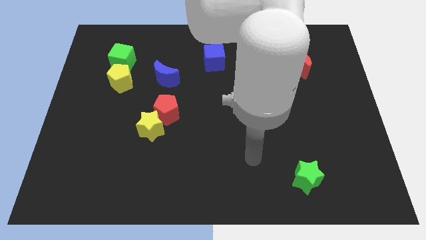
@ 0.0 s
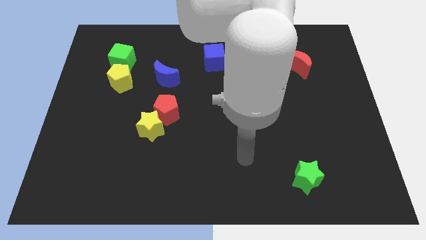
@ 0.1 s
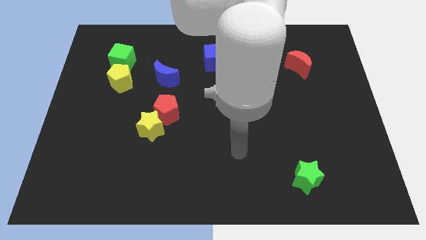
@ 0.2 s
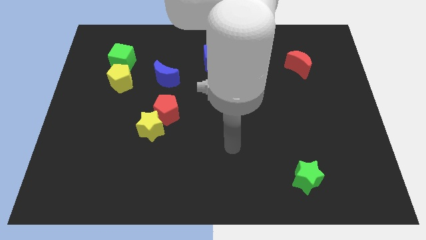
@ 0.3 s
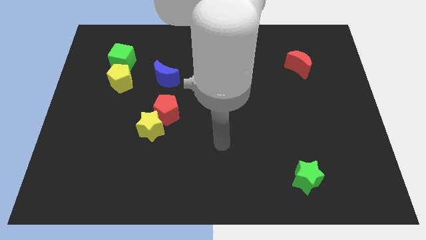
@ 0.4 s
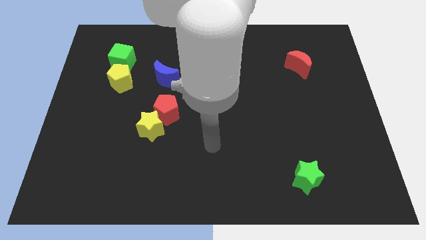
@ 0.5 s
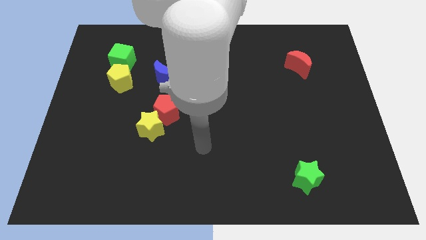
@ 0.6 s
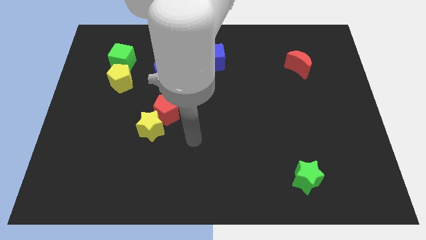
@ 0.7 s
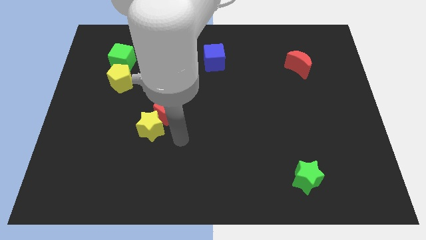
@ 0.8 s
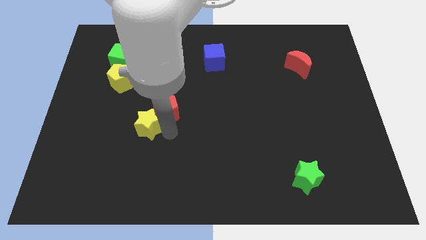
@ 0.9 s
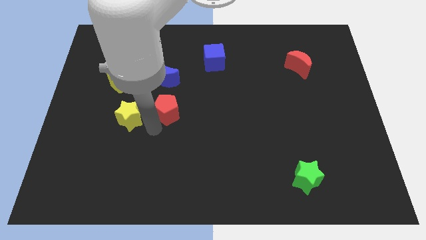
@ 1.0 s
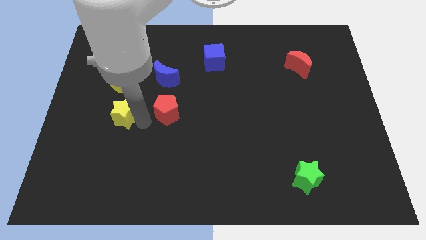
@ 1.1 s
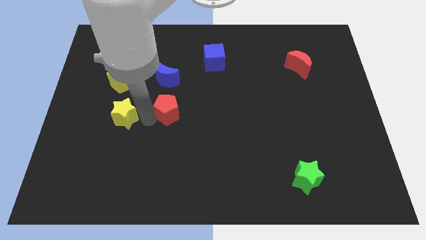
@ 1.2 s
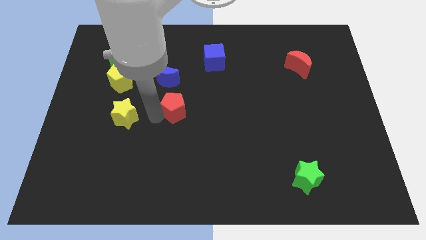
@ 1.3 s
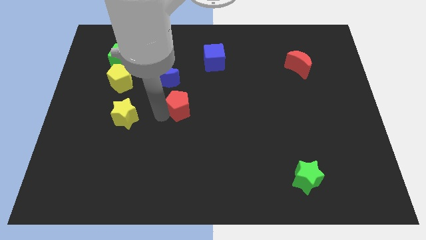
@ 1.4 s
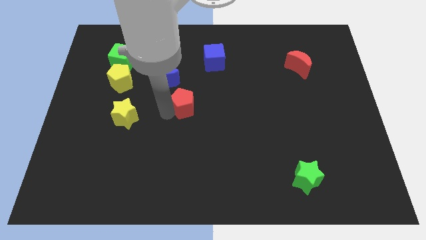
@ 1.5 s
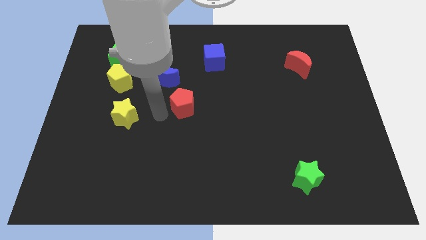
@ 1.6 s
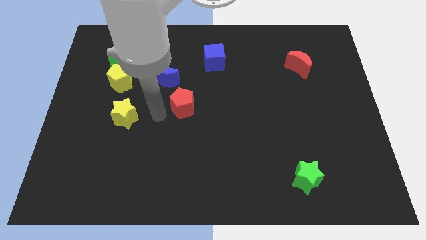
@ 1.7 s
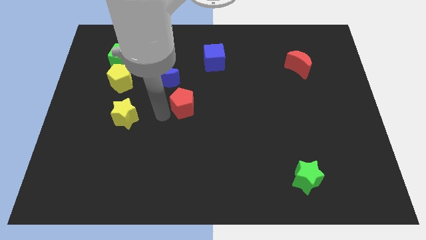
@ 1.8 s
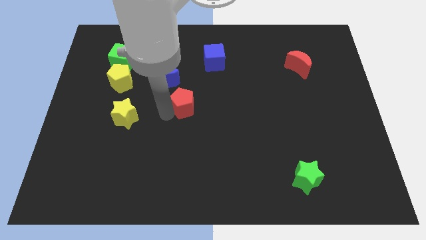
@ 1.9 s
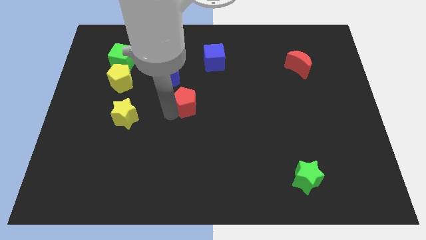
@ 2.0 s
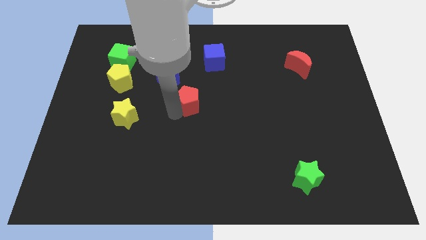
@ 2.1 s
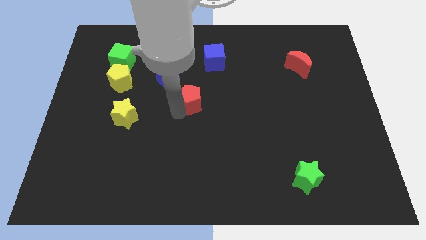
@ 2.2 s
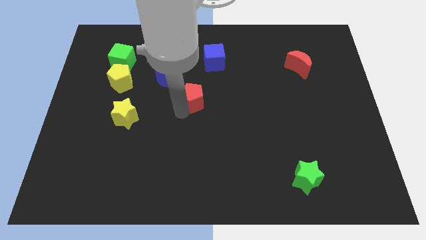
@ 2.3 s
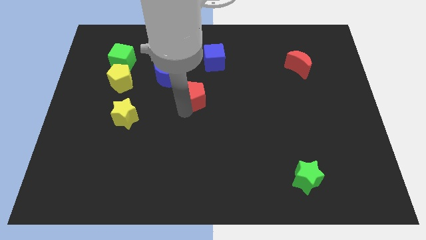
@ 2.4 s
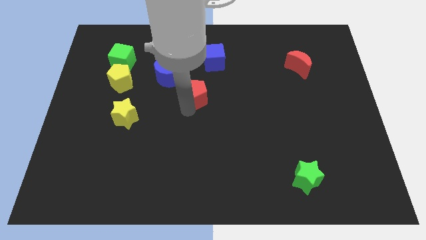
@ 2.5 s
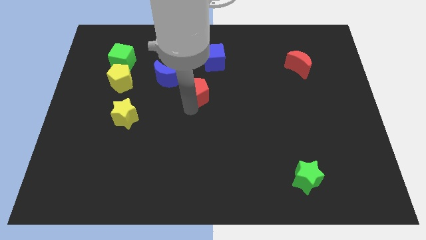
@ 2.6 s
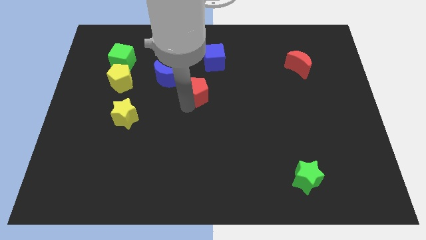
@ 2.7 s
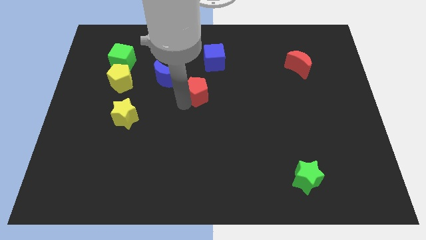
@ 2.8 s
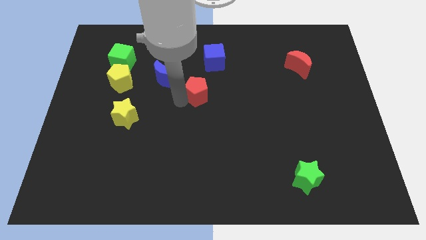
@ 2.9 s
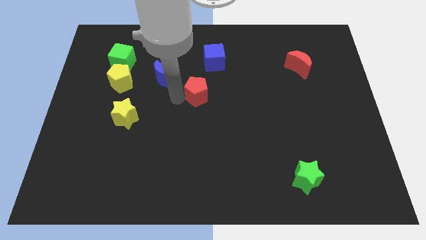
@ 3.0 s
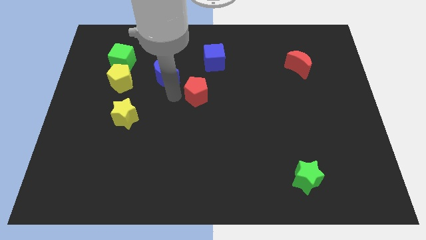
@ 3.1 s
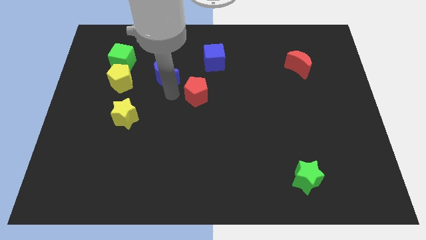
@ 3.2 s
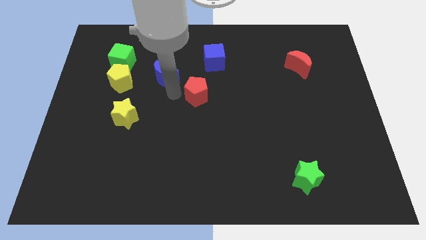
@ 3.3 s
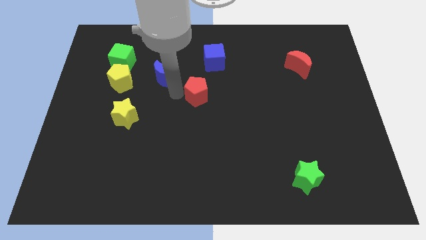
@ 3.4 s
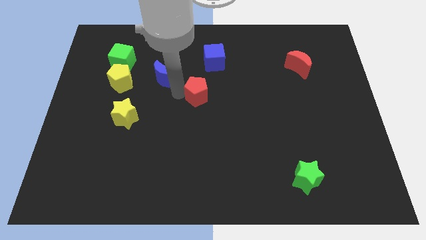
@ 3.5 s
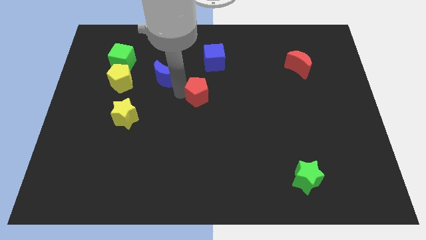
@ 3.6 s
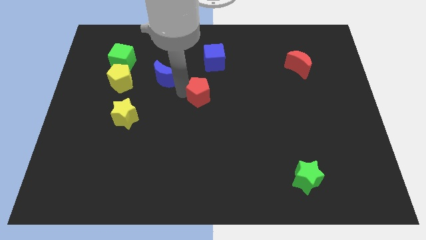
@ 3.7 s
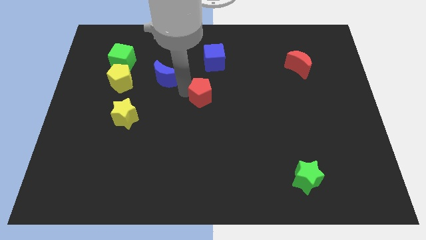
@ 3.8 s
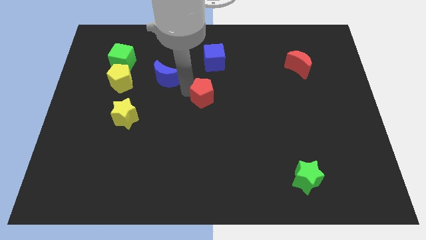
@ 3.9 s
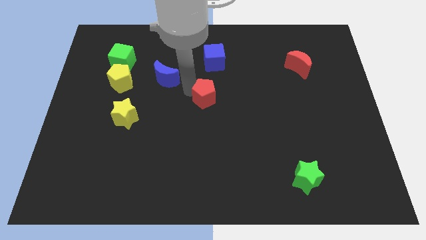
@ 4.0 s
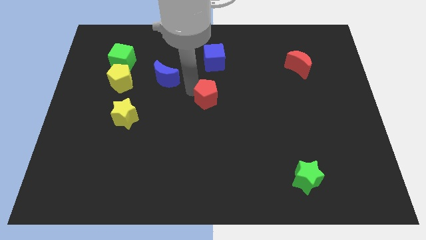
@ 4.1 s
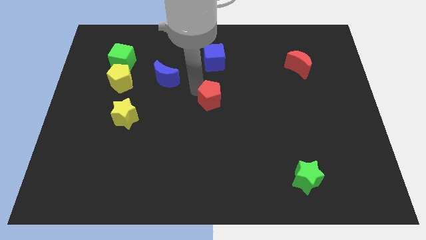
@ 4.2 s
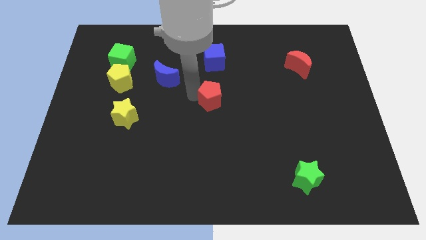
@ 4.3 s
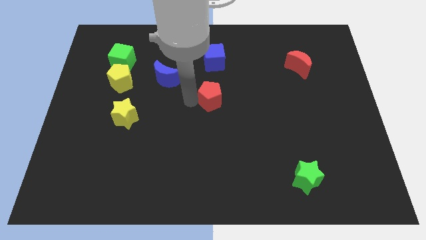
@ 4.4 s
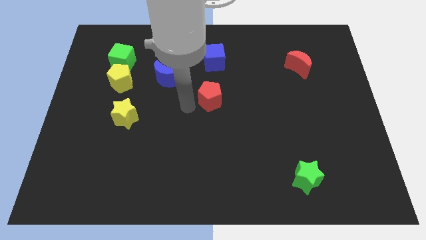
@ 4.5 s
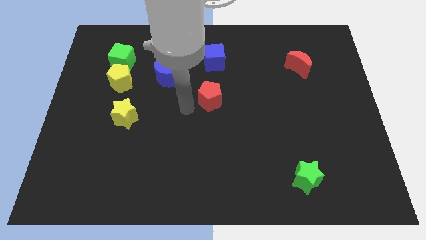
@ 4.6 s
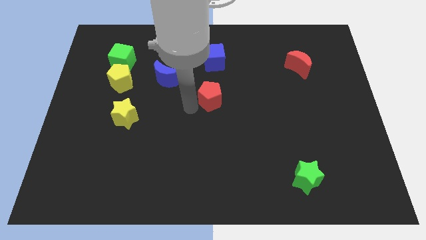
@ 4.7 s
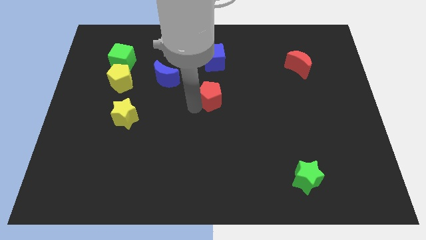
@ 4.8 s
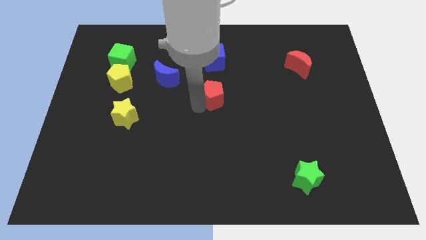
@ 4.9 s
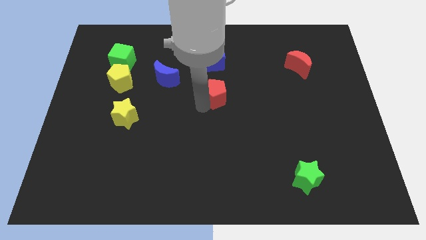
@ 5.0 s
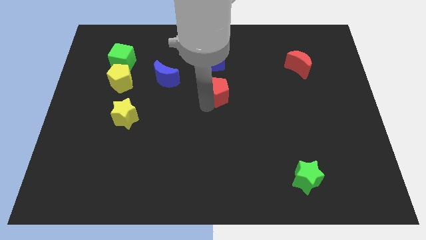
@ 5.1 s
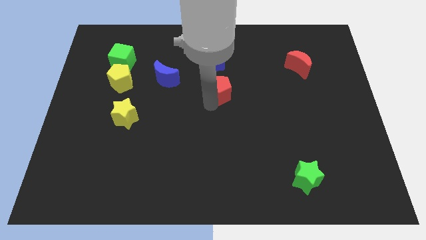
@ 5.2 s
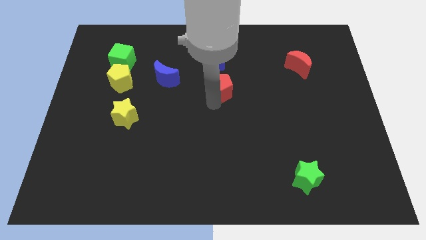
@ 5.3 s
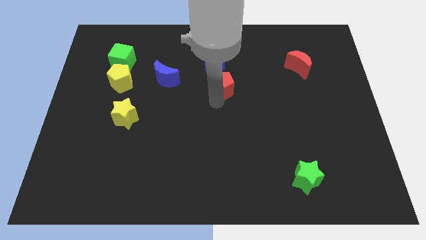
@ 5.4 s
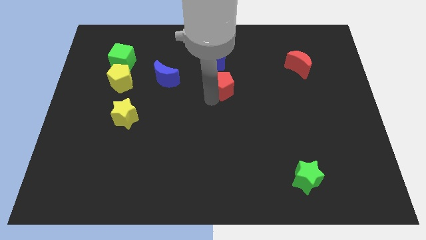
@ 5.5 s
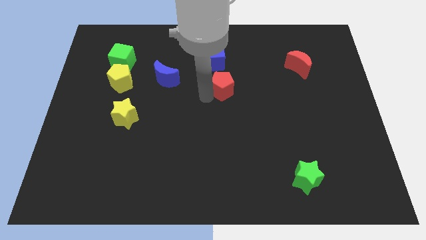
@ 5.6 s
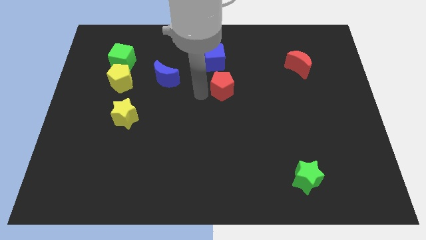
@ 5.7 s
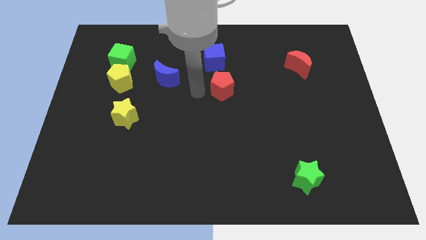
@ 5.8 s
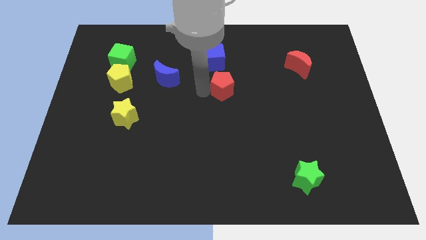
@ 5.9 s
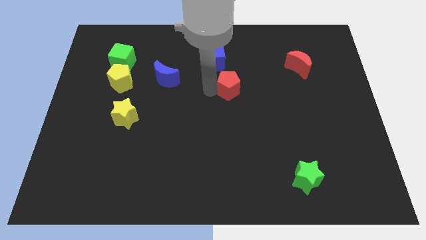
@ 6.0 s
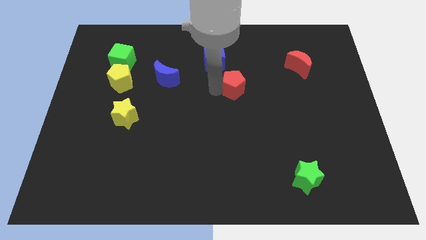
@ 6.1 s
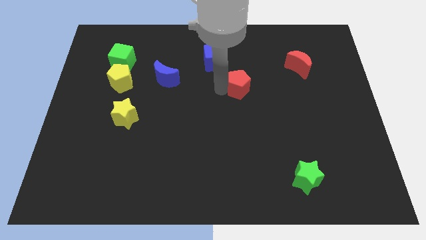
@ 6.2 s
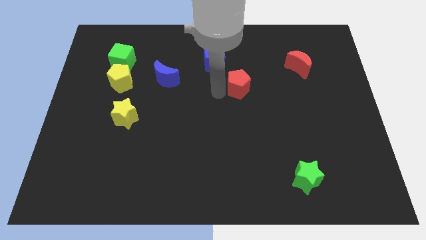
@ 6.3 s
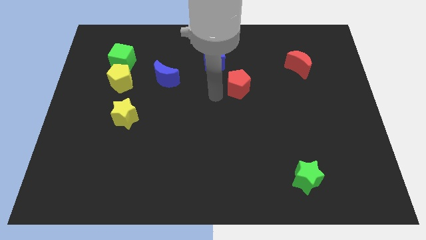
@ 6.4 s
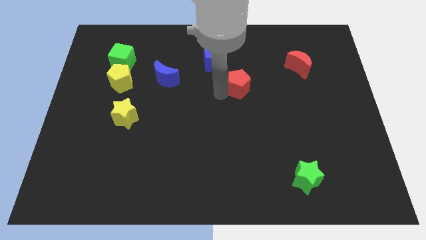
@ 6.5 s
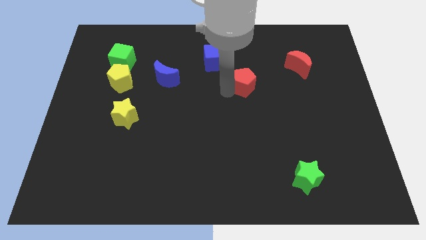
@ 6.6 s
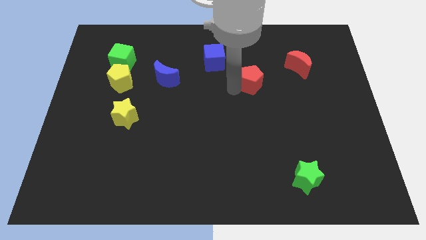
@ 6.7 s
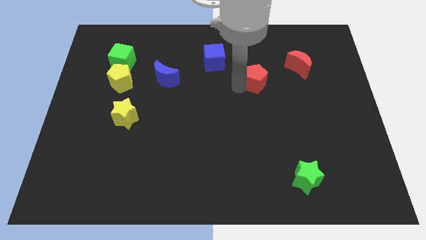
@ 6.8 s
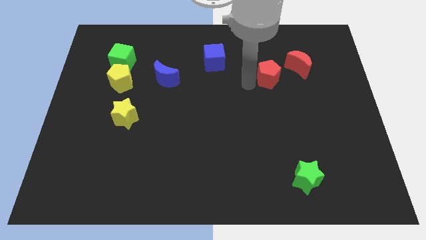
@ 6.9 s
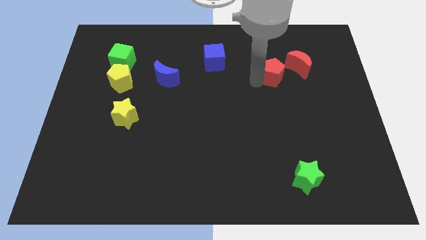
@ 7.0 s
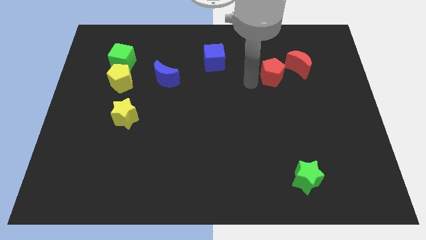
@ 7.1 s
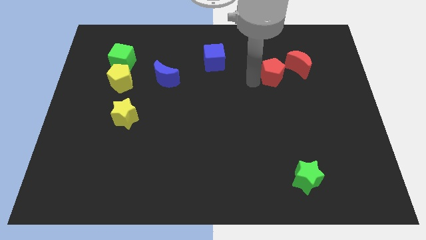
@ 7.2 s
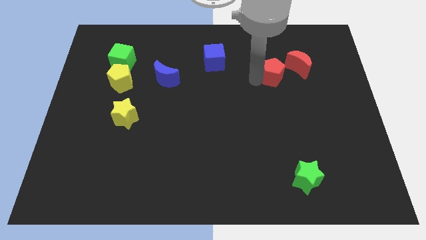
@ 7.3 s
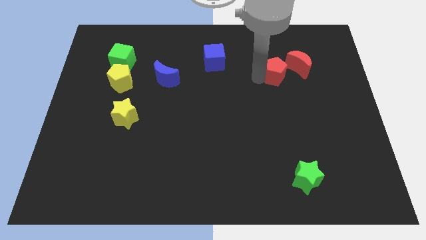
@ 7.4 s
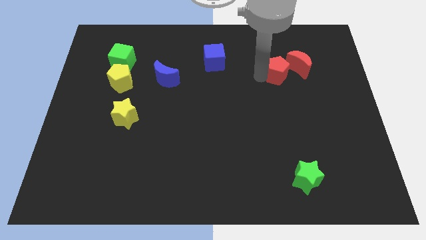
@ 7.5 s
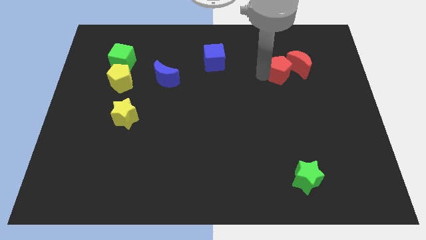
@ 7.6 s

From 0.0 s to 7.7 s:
push the red pentagon next to the red moon

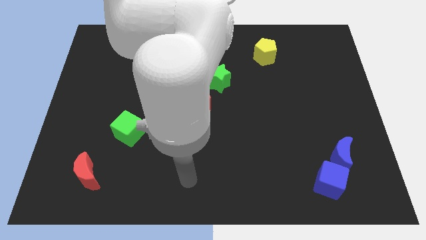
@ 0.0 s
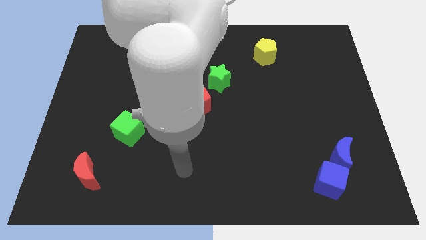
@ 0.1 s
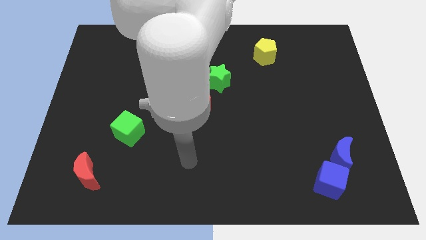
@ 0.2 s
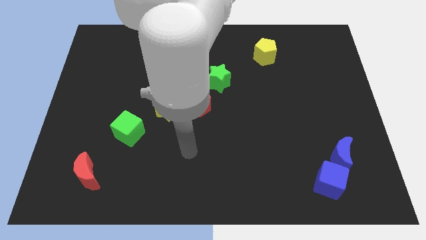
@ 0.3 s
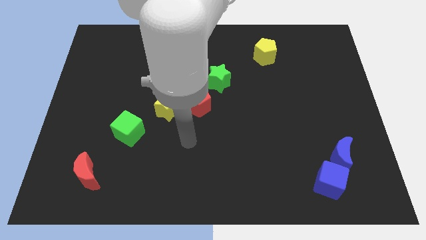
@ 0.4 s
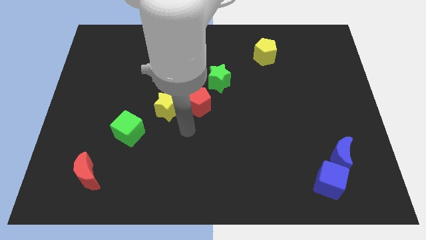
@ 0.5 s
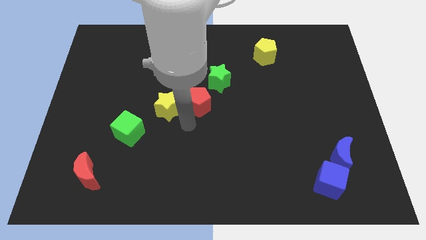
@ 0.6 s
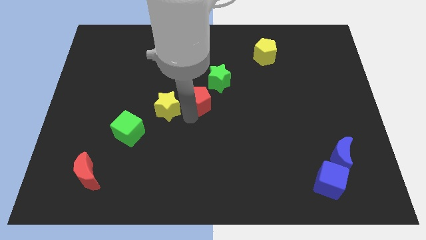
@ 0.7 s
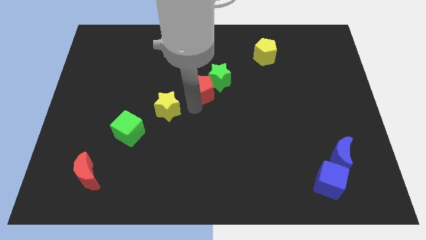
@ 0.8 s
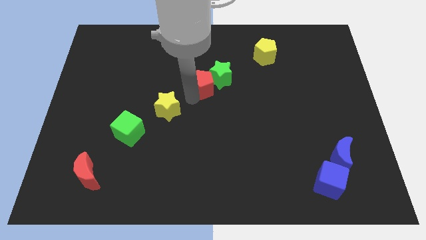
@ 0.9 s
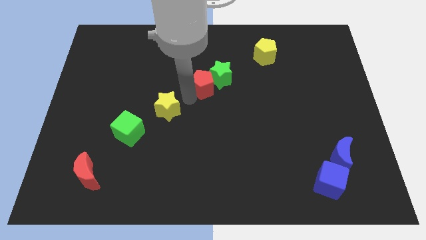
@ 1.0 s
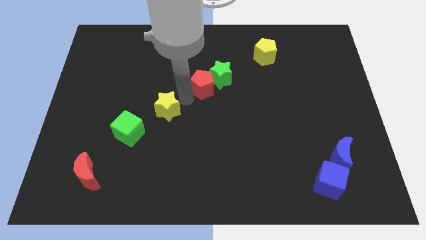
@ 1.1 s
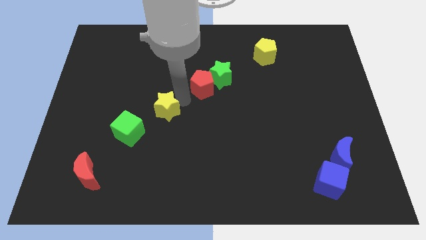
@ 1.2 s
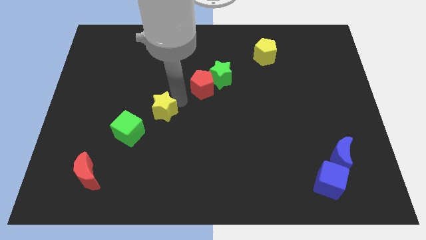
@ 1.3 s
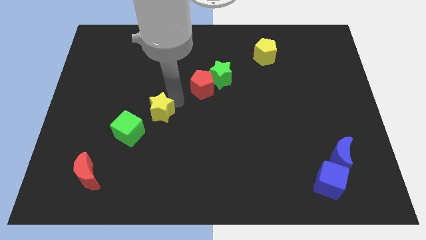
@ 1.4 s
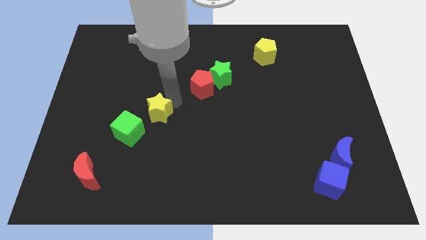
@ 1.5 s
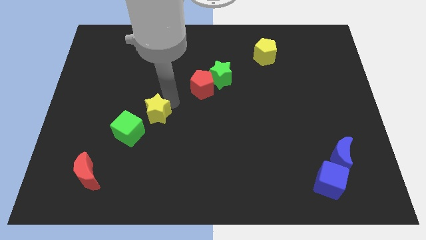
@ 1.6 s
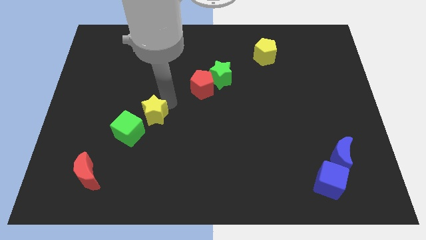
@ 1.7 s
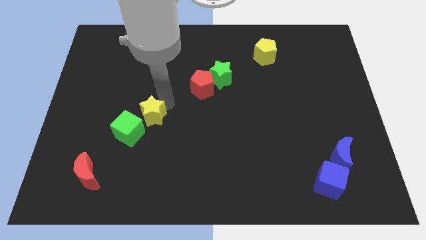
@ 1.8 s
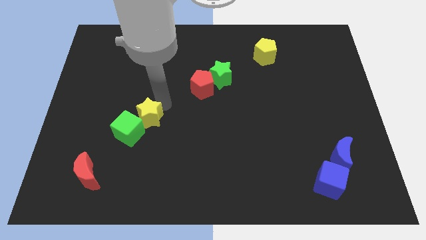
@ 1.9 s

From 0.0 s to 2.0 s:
put the yellow star close to the green cube
